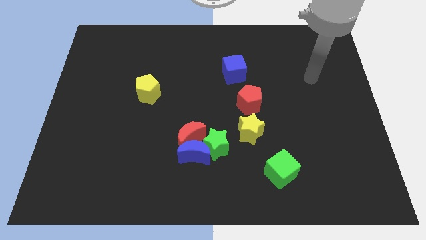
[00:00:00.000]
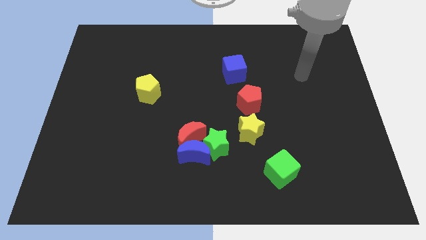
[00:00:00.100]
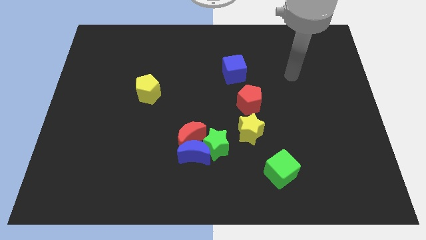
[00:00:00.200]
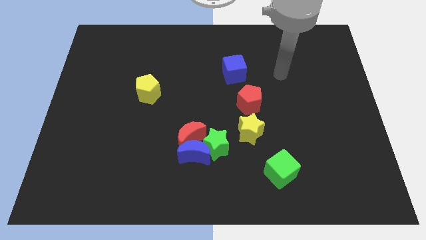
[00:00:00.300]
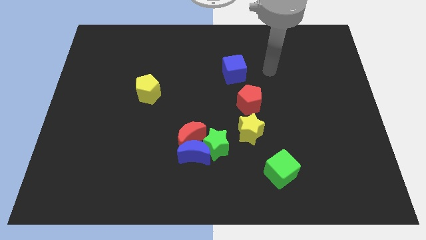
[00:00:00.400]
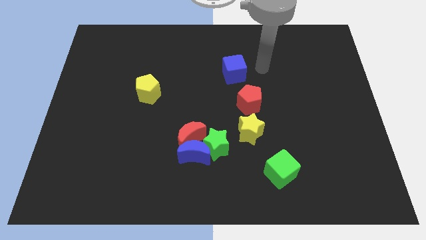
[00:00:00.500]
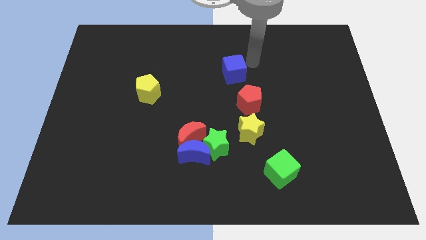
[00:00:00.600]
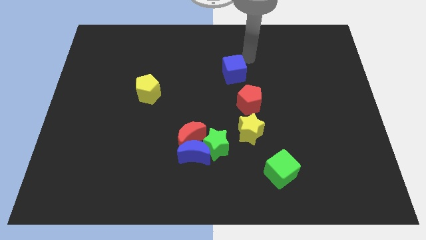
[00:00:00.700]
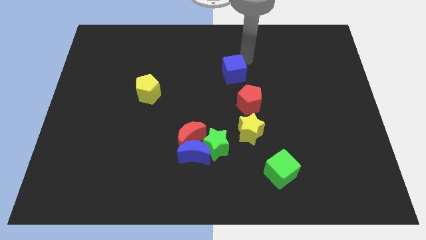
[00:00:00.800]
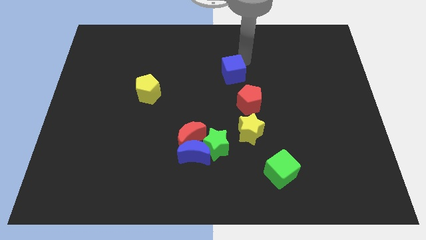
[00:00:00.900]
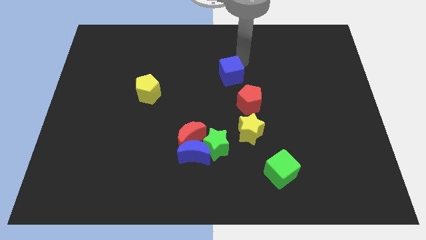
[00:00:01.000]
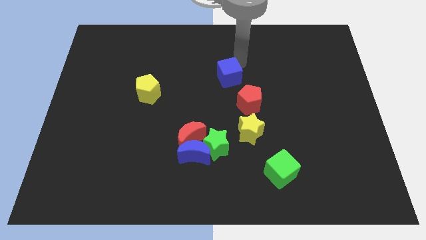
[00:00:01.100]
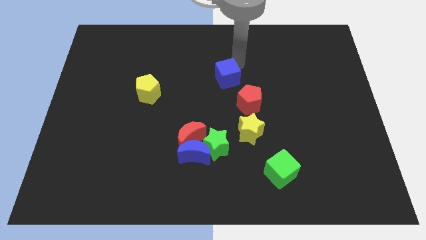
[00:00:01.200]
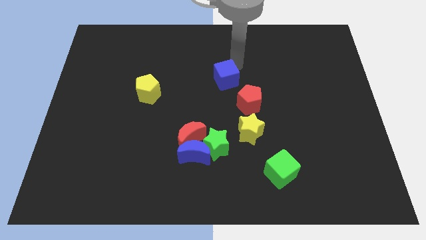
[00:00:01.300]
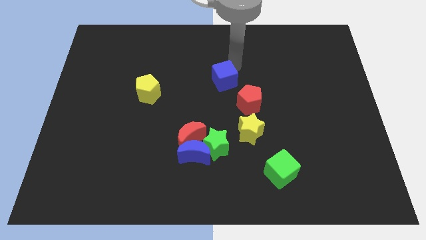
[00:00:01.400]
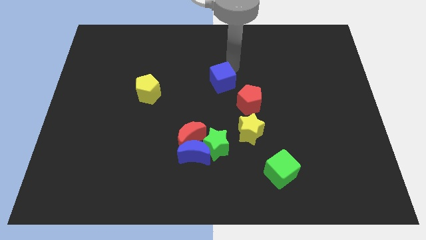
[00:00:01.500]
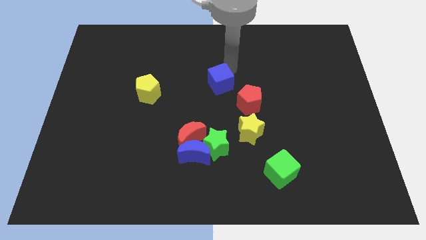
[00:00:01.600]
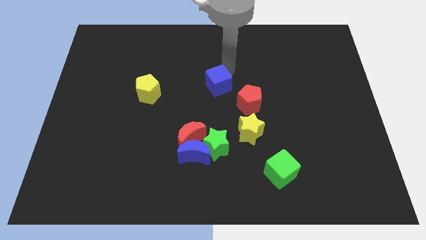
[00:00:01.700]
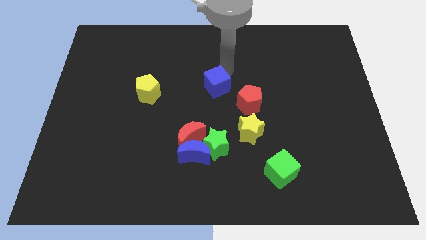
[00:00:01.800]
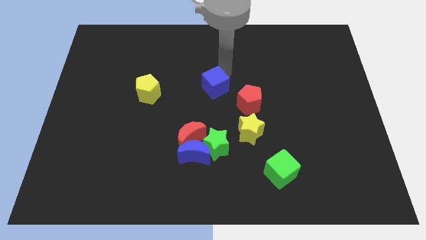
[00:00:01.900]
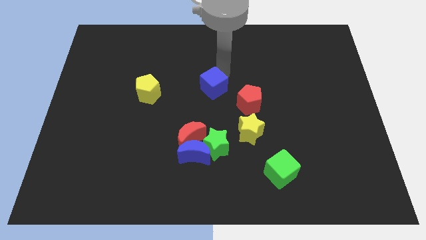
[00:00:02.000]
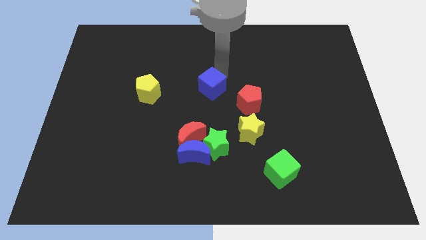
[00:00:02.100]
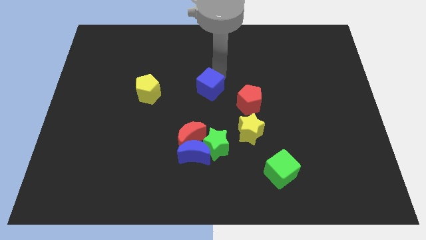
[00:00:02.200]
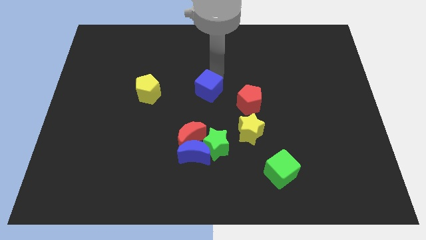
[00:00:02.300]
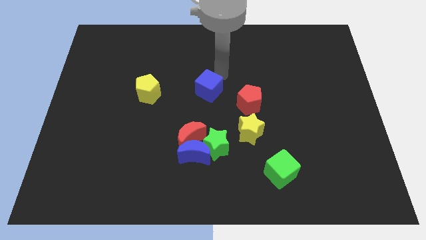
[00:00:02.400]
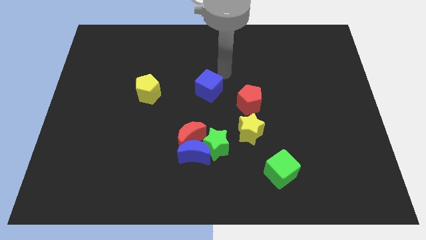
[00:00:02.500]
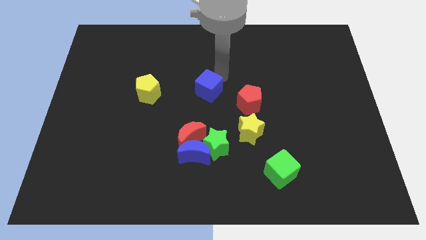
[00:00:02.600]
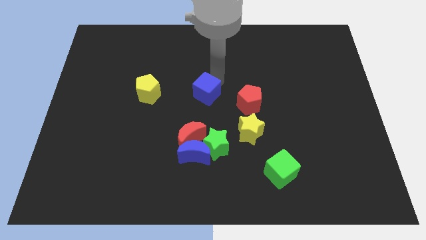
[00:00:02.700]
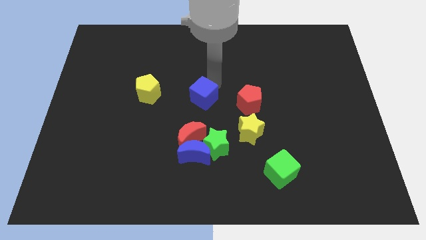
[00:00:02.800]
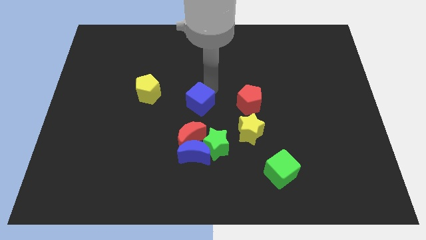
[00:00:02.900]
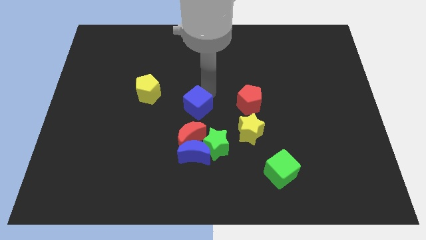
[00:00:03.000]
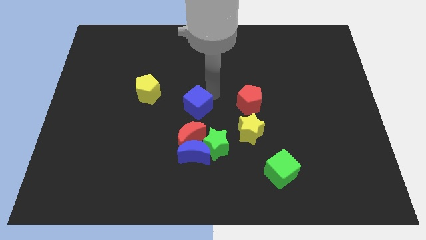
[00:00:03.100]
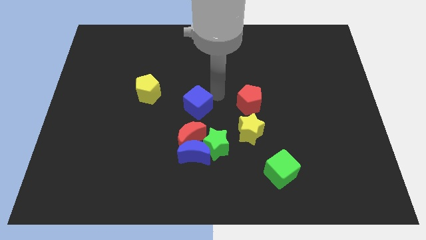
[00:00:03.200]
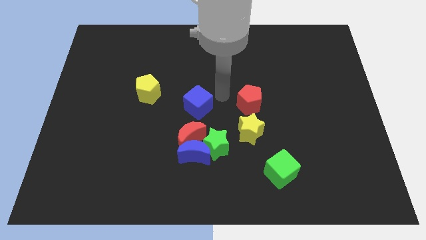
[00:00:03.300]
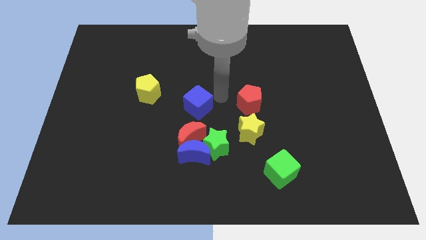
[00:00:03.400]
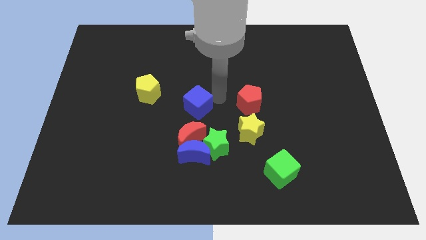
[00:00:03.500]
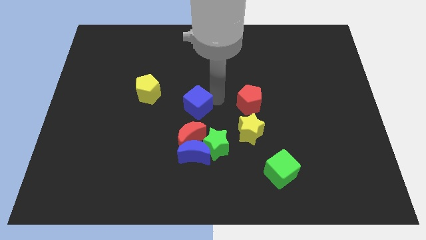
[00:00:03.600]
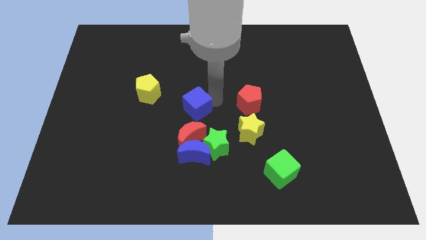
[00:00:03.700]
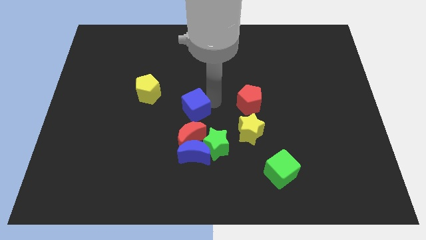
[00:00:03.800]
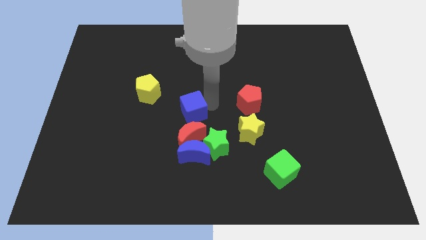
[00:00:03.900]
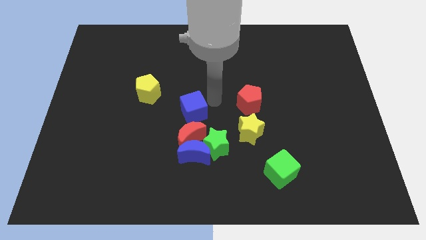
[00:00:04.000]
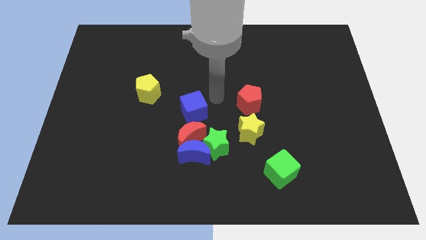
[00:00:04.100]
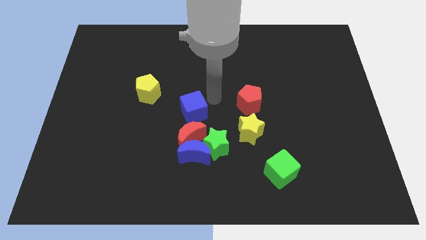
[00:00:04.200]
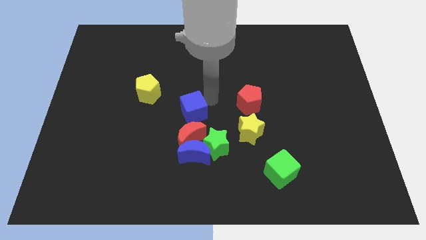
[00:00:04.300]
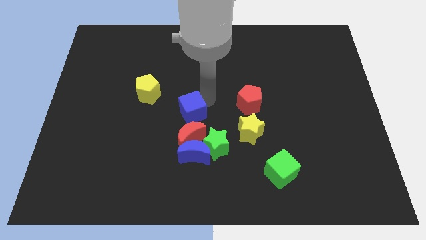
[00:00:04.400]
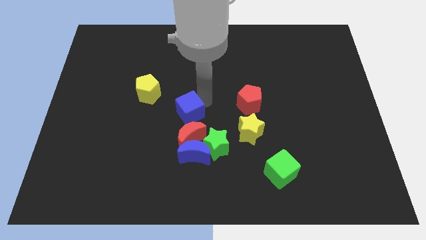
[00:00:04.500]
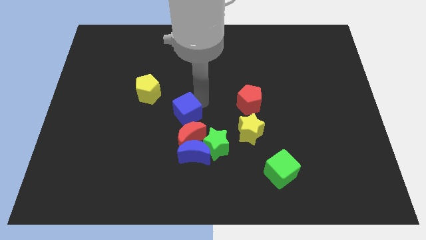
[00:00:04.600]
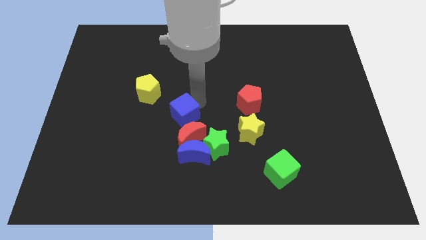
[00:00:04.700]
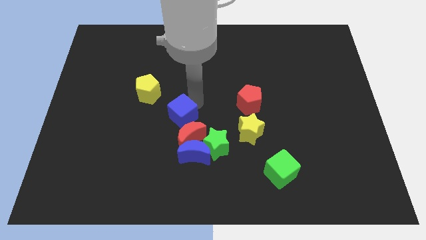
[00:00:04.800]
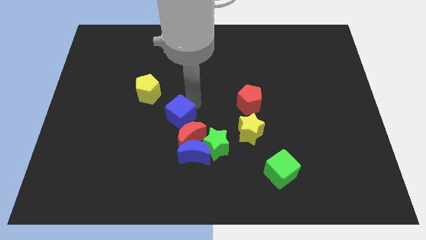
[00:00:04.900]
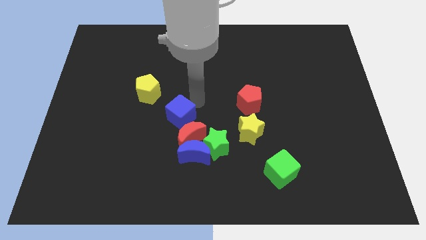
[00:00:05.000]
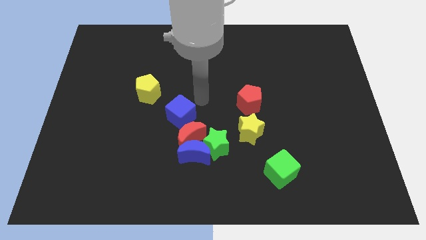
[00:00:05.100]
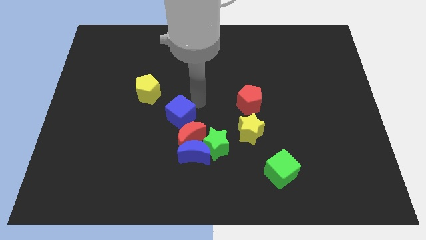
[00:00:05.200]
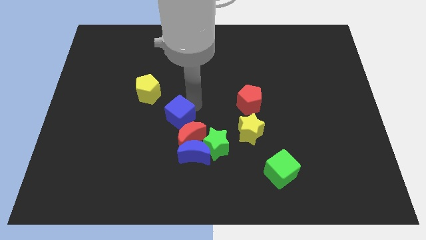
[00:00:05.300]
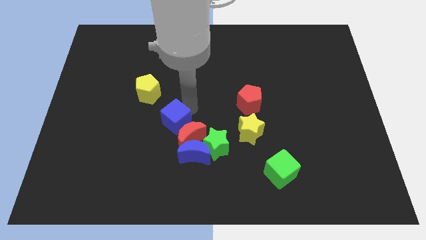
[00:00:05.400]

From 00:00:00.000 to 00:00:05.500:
slide the blue cube down and left

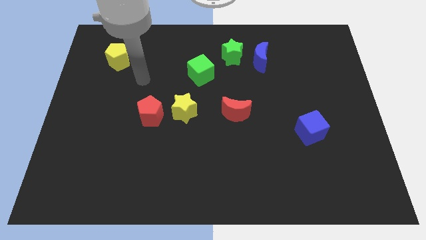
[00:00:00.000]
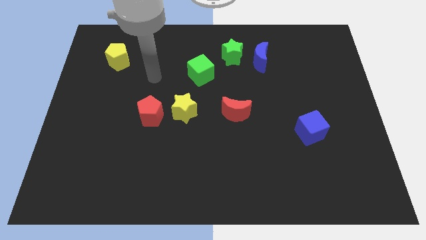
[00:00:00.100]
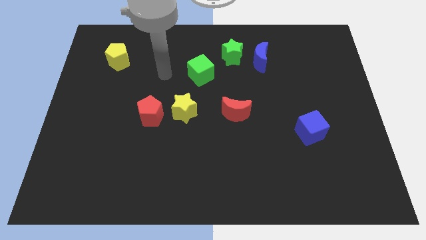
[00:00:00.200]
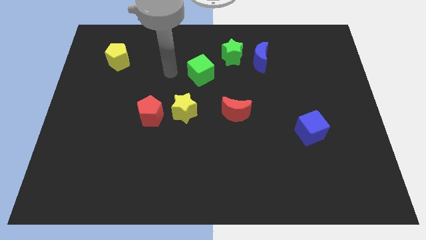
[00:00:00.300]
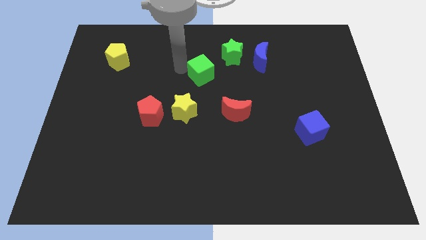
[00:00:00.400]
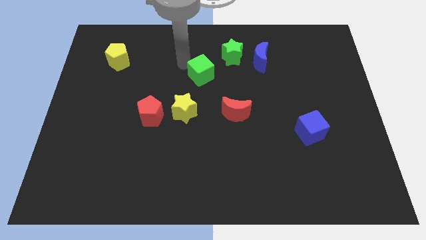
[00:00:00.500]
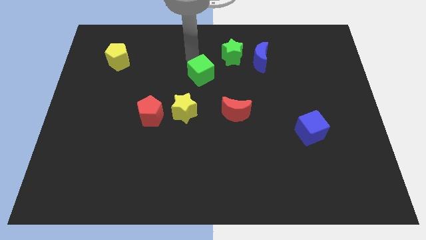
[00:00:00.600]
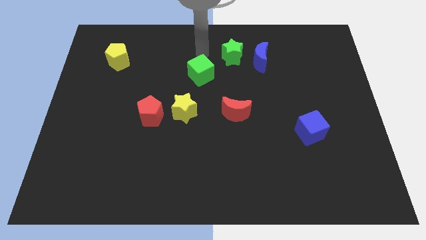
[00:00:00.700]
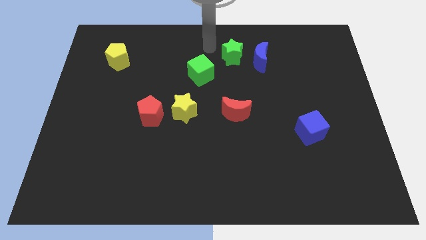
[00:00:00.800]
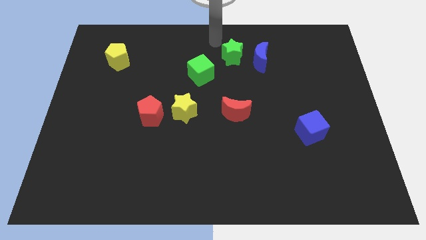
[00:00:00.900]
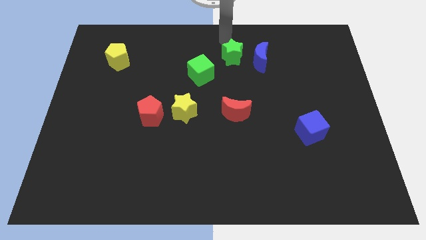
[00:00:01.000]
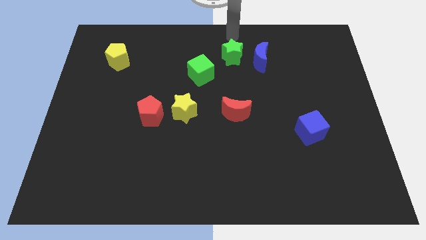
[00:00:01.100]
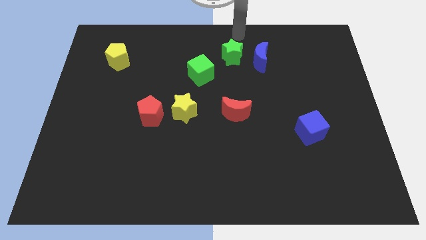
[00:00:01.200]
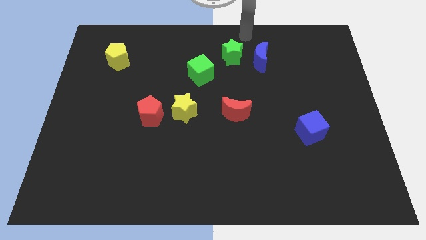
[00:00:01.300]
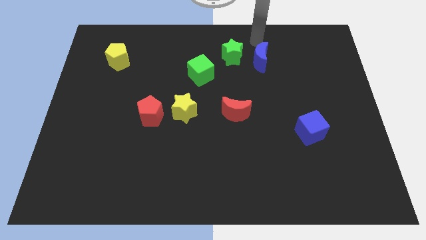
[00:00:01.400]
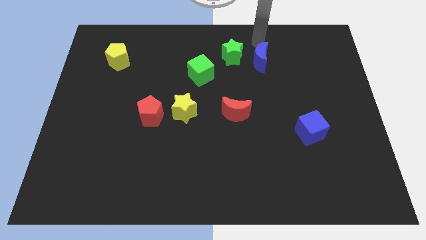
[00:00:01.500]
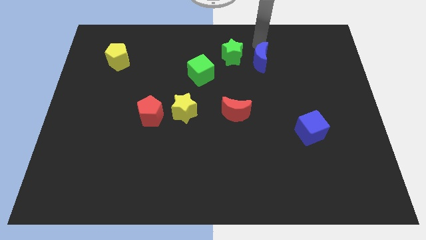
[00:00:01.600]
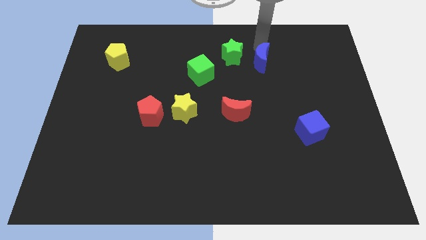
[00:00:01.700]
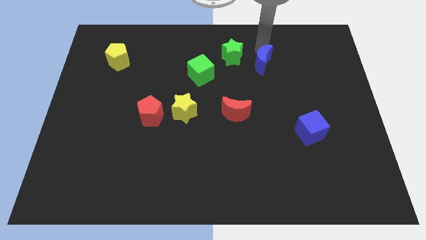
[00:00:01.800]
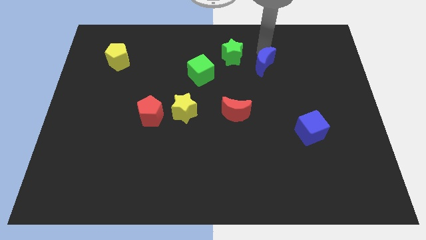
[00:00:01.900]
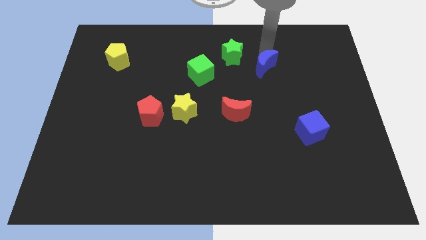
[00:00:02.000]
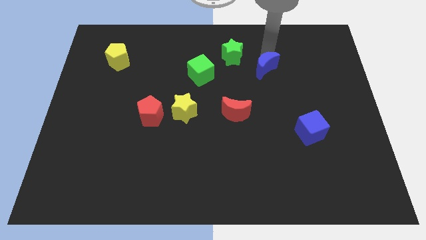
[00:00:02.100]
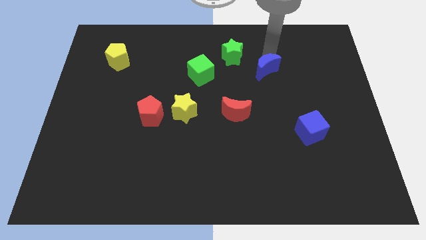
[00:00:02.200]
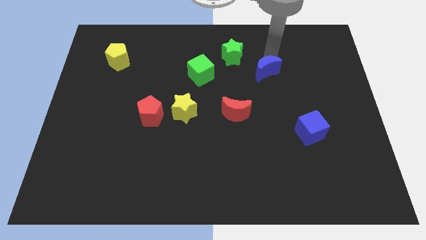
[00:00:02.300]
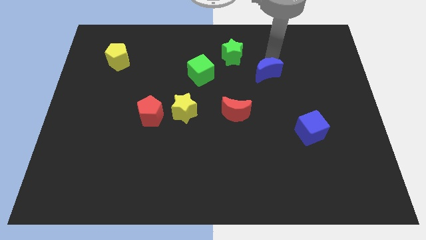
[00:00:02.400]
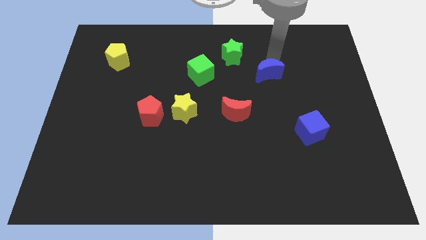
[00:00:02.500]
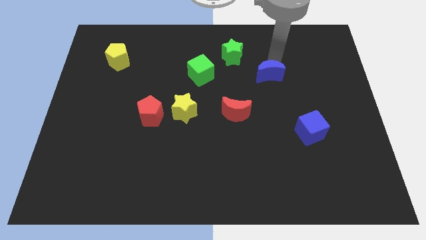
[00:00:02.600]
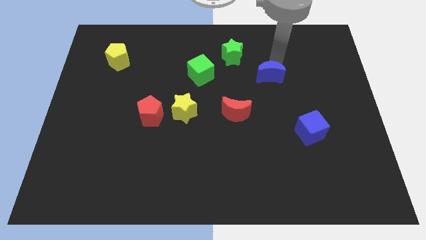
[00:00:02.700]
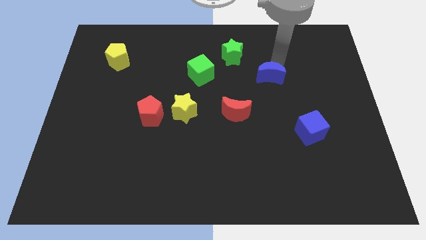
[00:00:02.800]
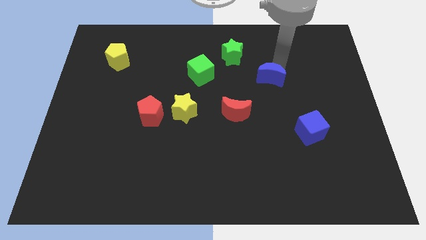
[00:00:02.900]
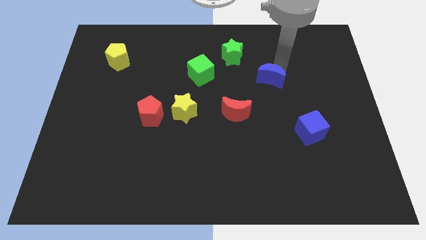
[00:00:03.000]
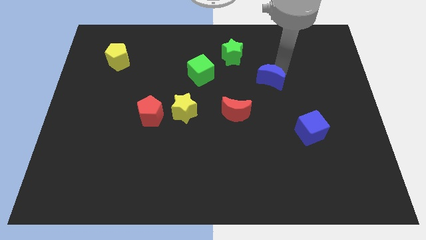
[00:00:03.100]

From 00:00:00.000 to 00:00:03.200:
slide the blue moon a little bit down
